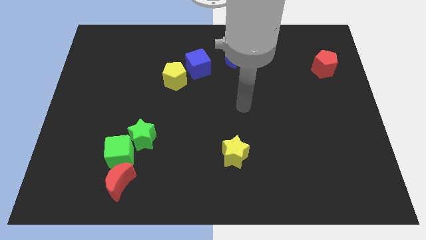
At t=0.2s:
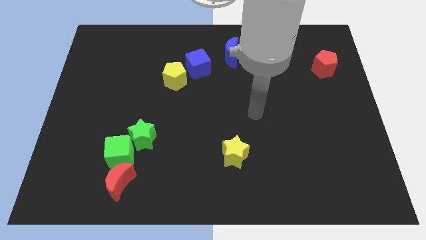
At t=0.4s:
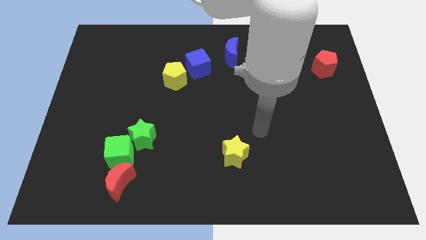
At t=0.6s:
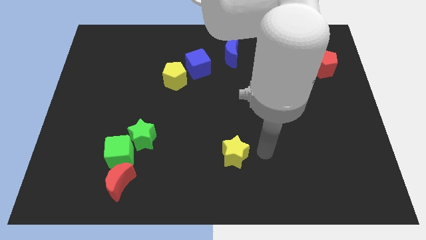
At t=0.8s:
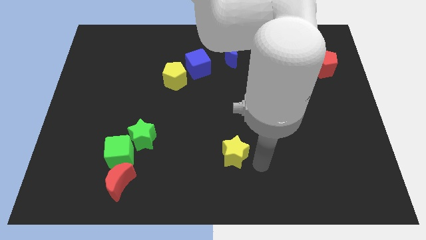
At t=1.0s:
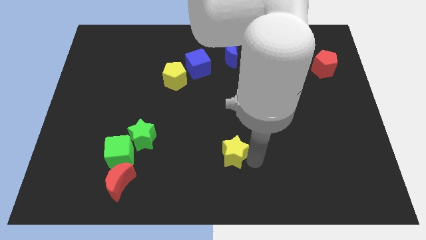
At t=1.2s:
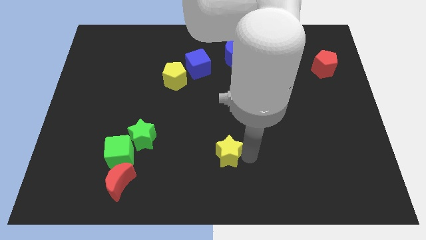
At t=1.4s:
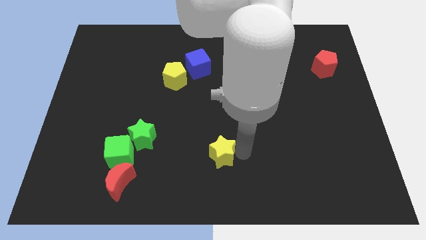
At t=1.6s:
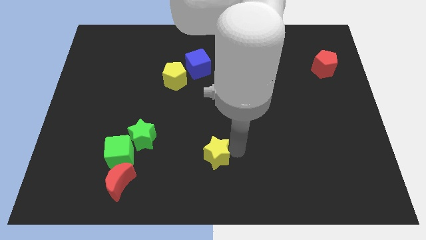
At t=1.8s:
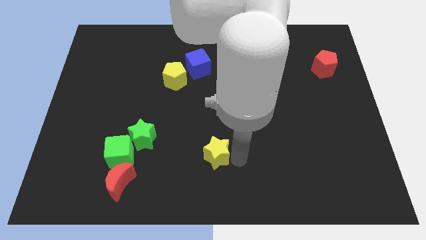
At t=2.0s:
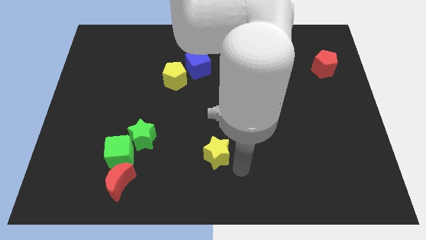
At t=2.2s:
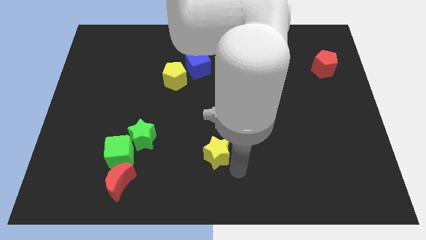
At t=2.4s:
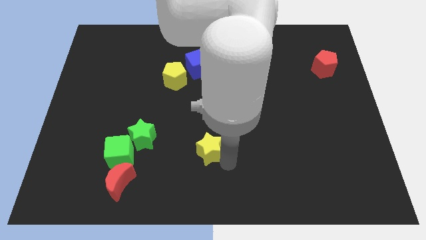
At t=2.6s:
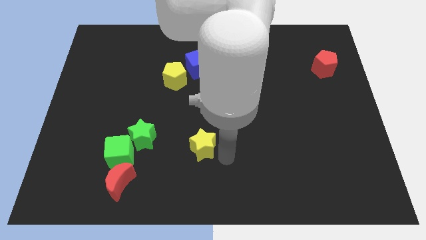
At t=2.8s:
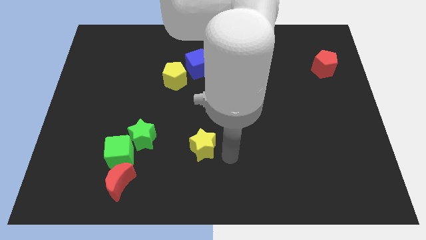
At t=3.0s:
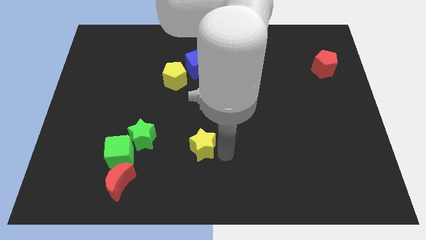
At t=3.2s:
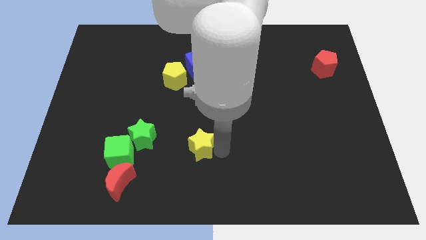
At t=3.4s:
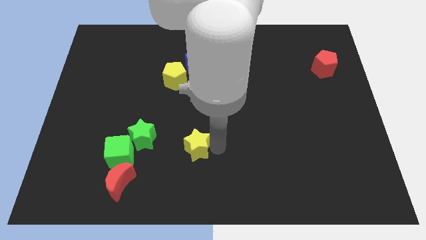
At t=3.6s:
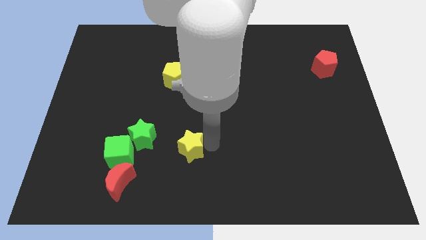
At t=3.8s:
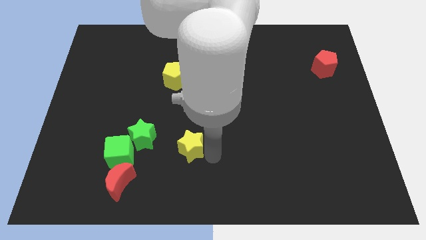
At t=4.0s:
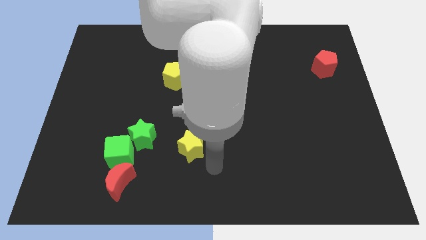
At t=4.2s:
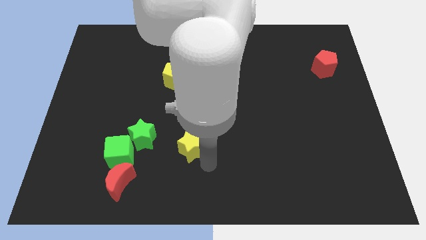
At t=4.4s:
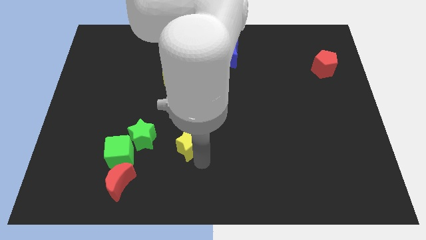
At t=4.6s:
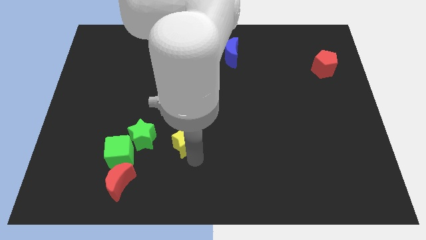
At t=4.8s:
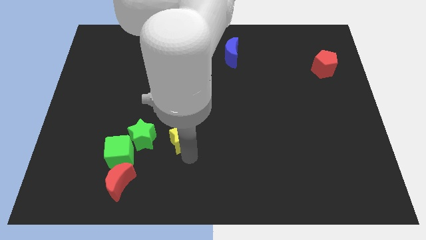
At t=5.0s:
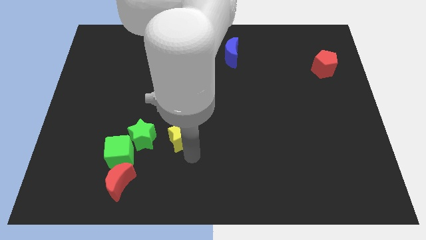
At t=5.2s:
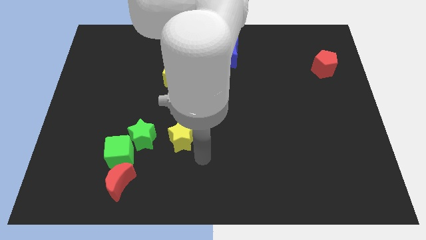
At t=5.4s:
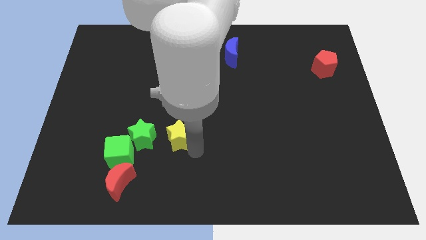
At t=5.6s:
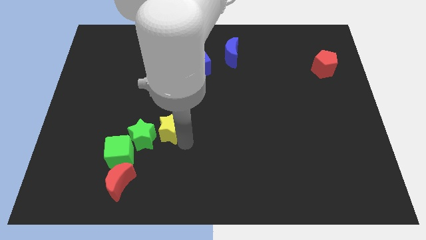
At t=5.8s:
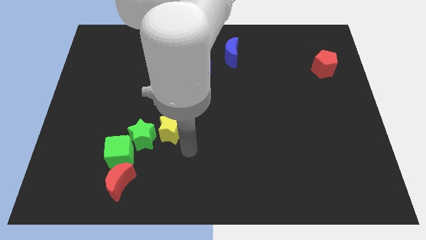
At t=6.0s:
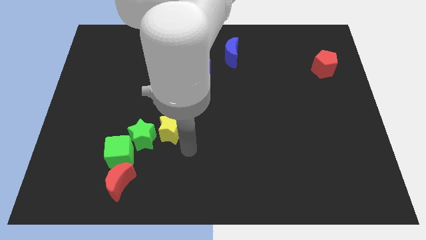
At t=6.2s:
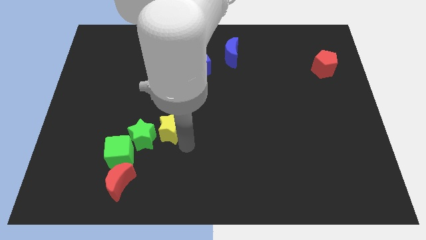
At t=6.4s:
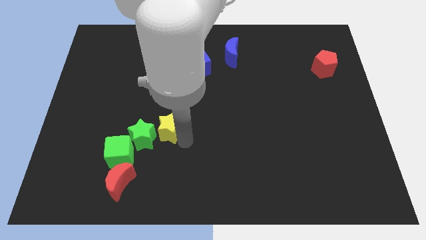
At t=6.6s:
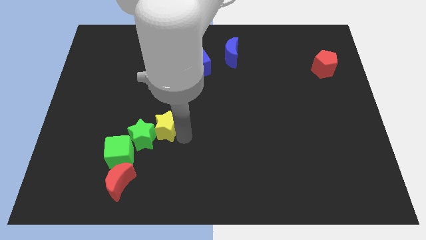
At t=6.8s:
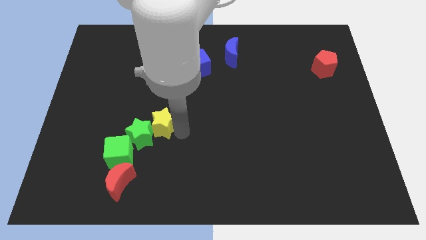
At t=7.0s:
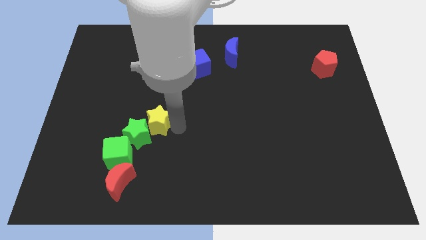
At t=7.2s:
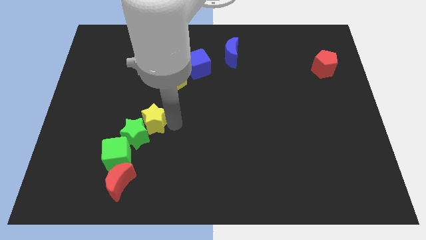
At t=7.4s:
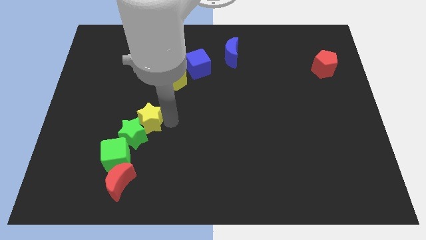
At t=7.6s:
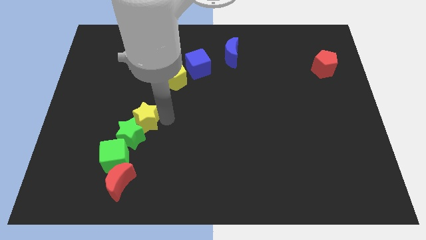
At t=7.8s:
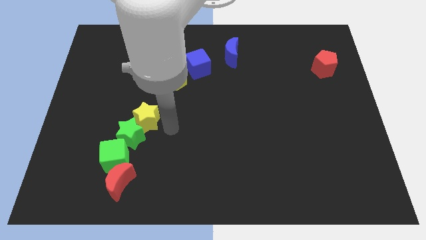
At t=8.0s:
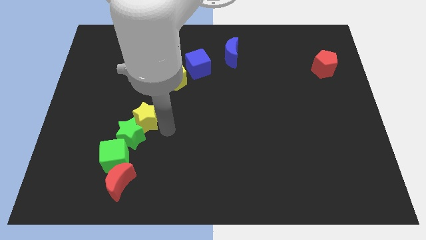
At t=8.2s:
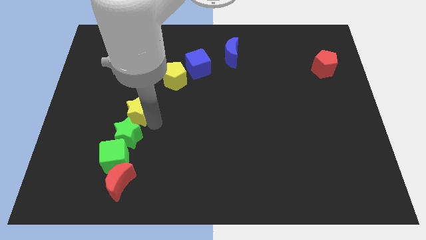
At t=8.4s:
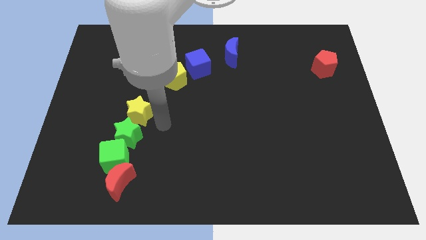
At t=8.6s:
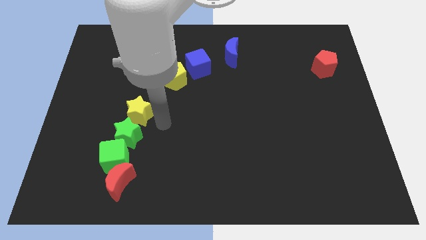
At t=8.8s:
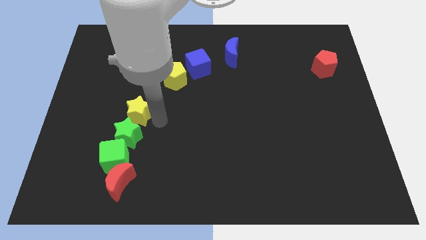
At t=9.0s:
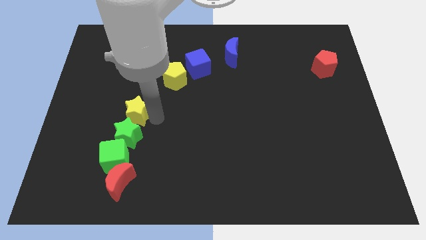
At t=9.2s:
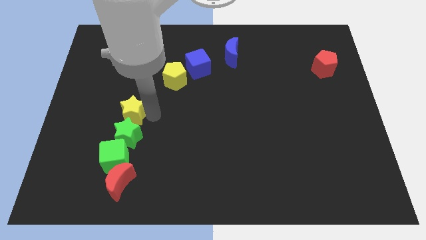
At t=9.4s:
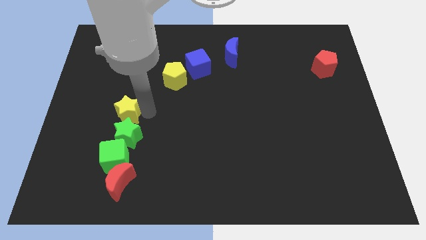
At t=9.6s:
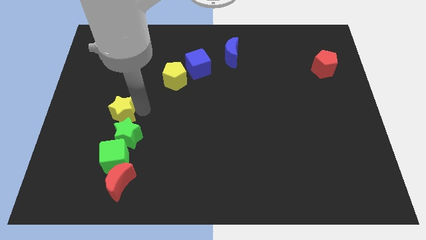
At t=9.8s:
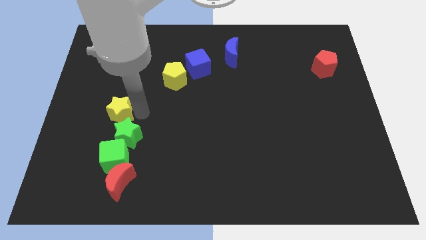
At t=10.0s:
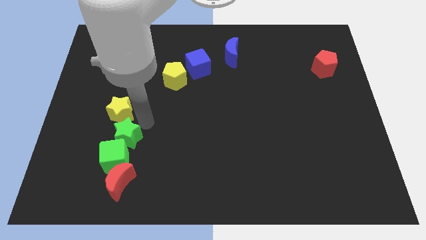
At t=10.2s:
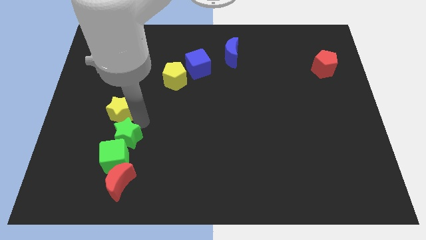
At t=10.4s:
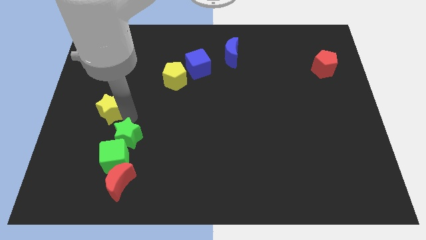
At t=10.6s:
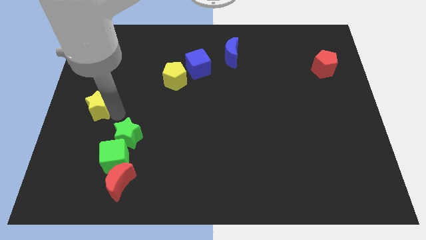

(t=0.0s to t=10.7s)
put the yellow star to the center left

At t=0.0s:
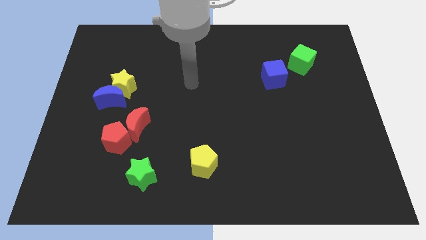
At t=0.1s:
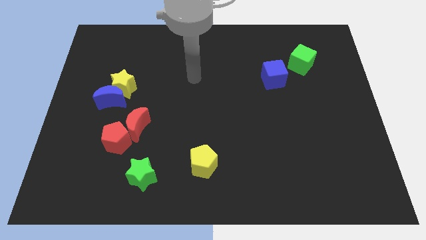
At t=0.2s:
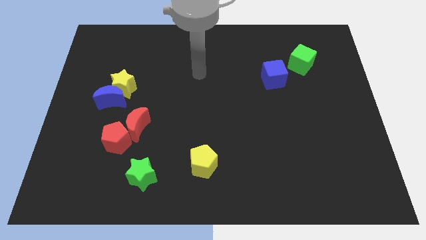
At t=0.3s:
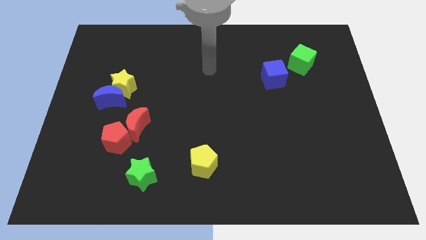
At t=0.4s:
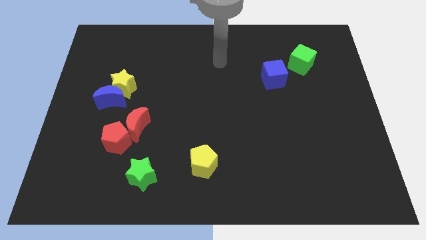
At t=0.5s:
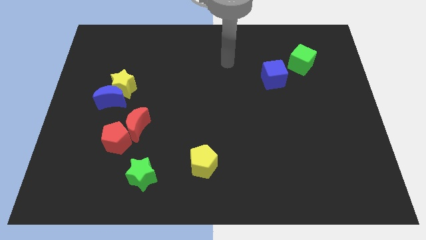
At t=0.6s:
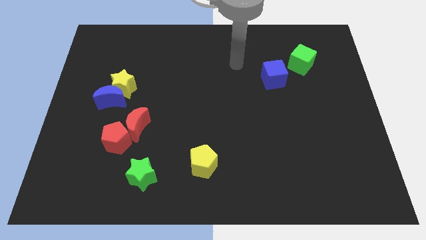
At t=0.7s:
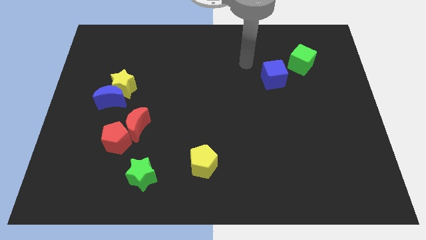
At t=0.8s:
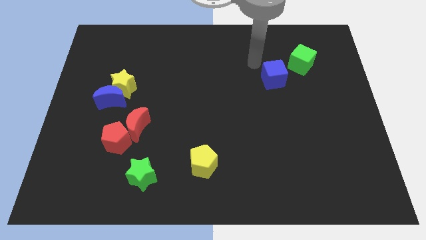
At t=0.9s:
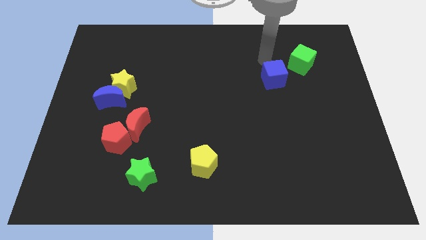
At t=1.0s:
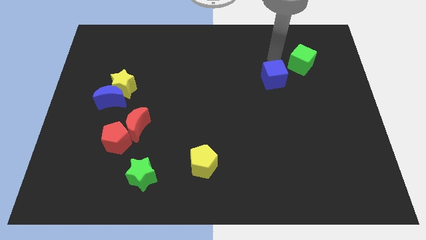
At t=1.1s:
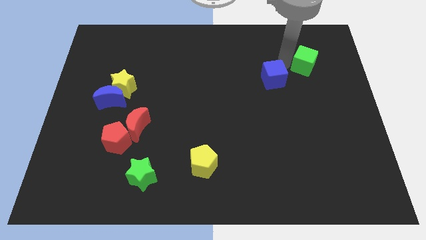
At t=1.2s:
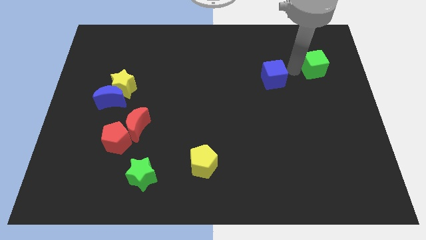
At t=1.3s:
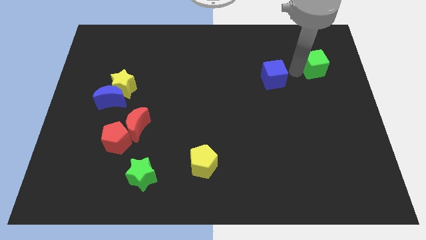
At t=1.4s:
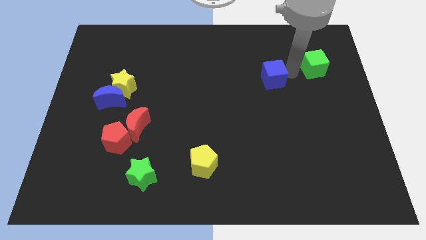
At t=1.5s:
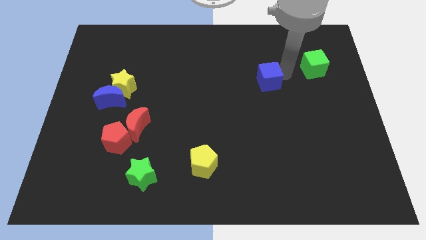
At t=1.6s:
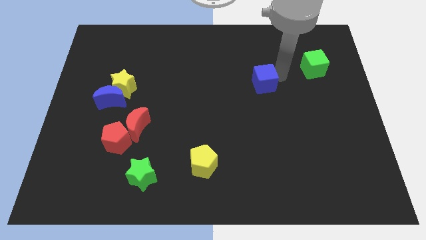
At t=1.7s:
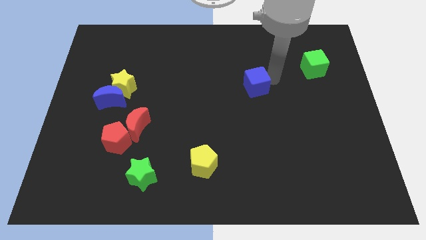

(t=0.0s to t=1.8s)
push the blue cube to the center of the board
